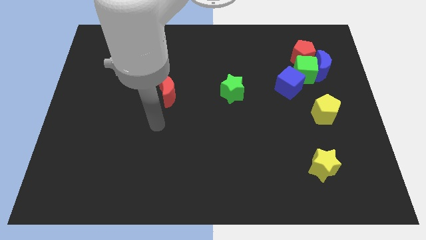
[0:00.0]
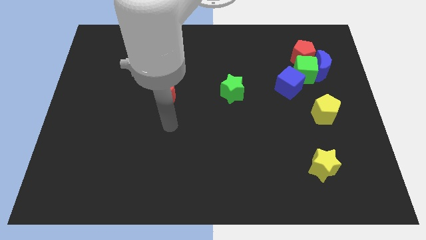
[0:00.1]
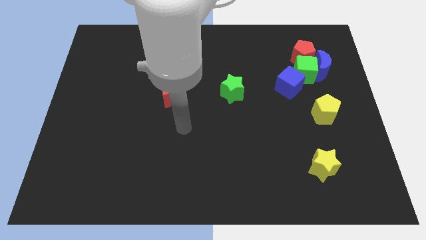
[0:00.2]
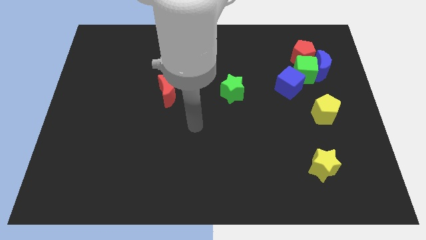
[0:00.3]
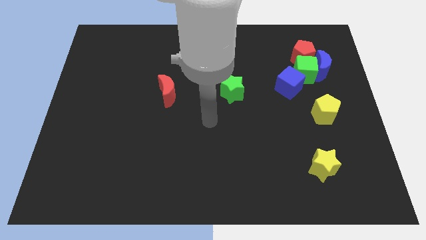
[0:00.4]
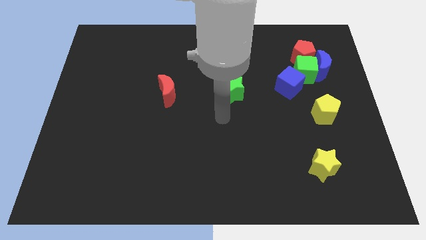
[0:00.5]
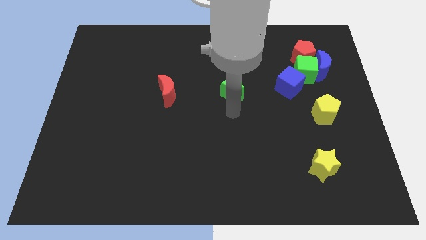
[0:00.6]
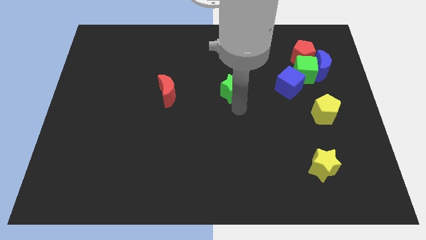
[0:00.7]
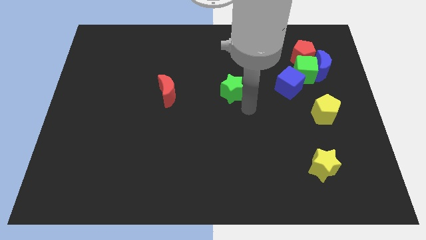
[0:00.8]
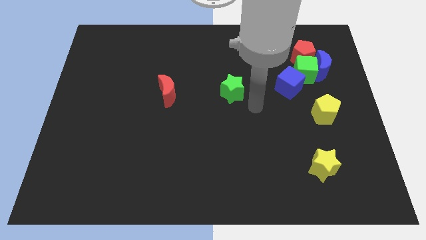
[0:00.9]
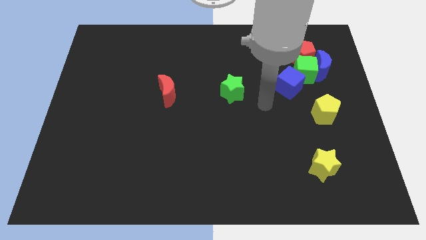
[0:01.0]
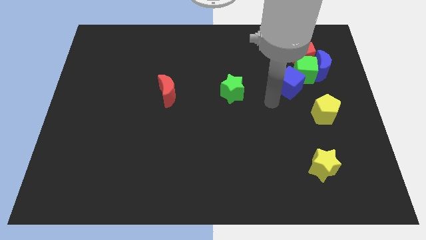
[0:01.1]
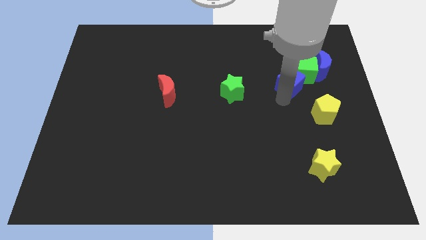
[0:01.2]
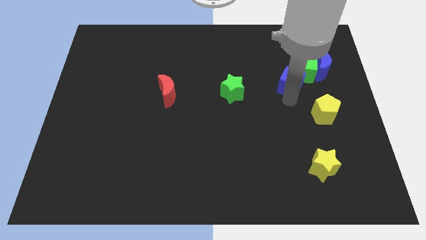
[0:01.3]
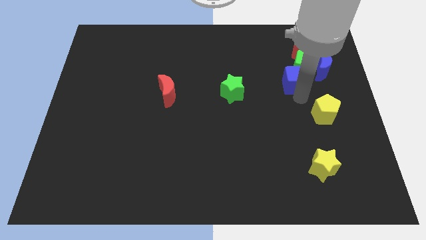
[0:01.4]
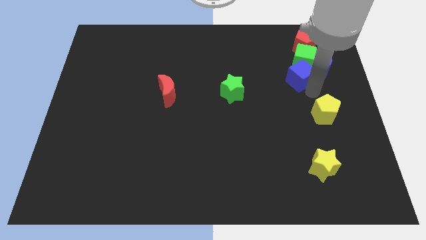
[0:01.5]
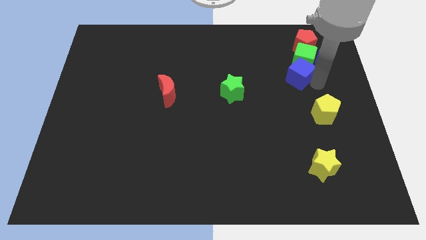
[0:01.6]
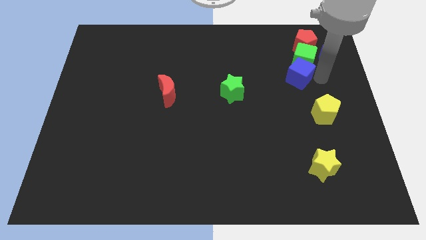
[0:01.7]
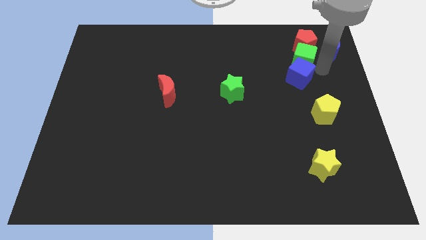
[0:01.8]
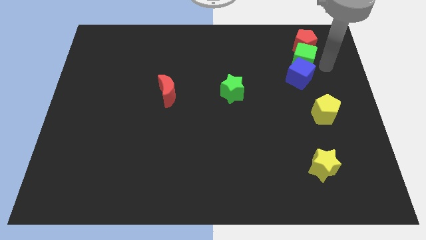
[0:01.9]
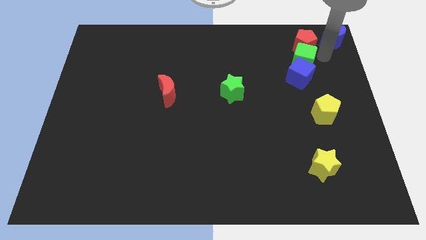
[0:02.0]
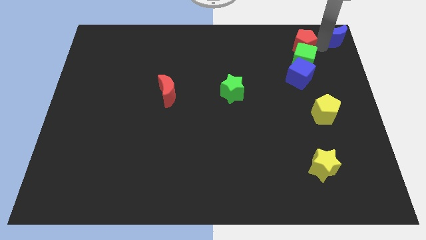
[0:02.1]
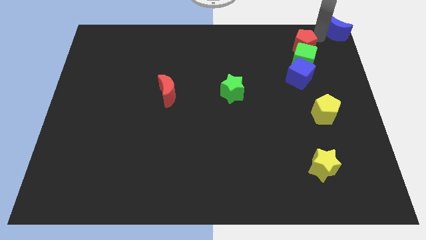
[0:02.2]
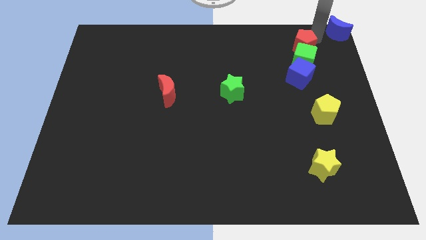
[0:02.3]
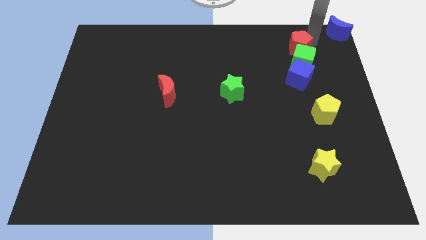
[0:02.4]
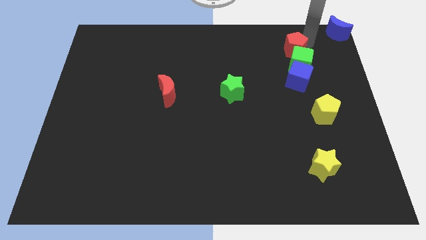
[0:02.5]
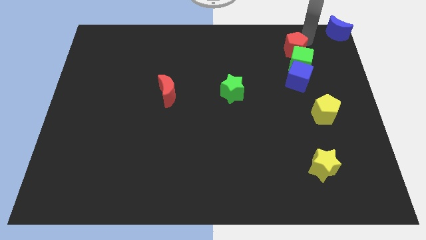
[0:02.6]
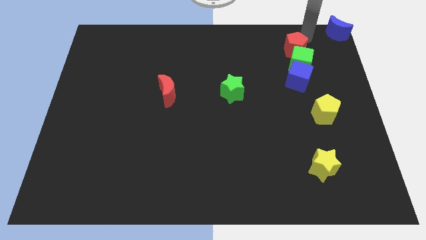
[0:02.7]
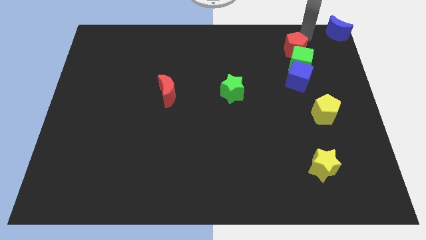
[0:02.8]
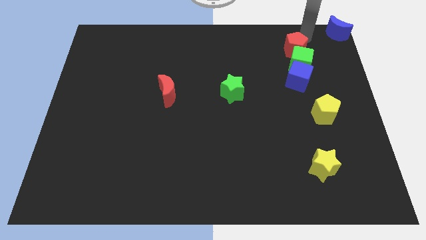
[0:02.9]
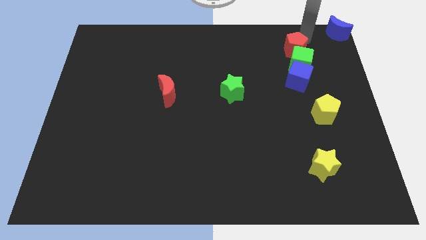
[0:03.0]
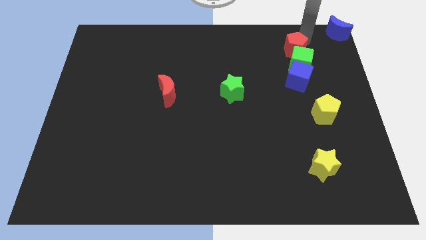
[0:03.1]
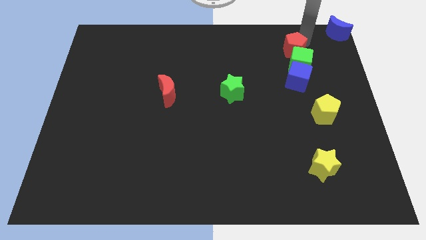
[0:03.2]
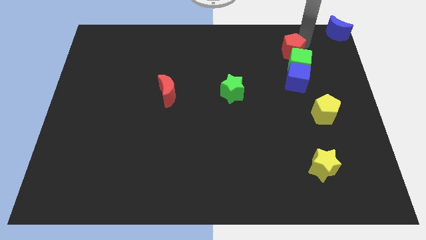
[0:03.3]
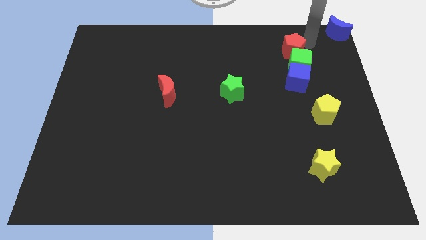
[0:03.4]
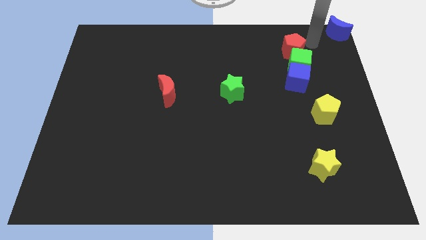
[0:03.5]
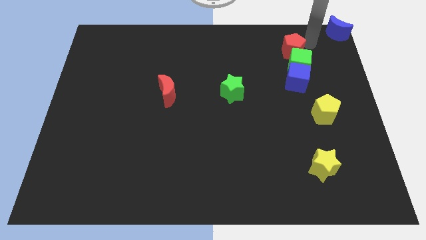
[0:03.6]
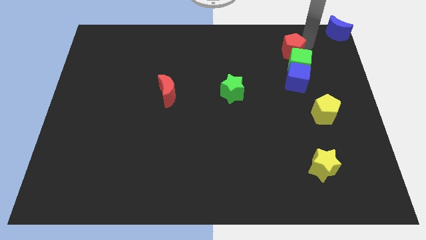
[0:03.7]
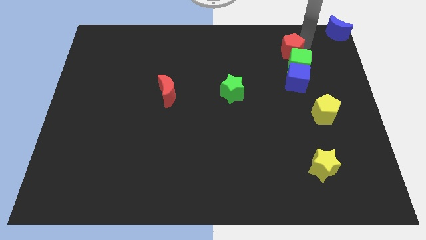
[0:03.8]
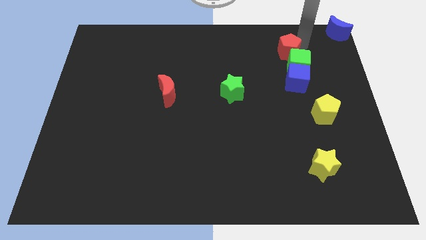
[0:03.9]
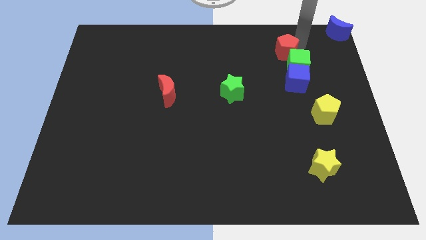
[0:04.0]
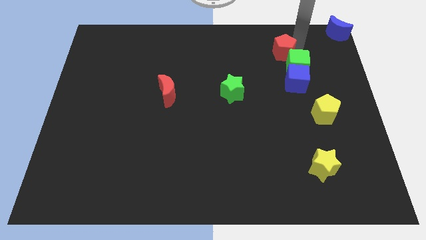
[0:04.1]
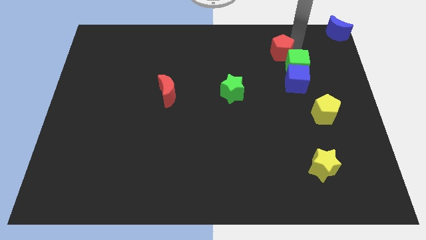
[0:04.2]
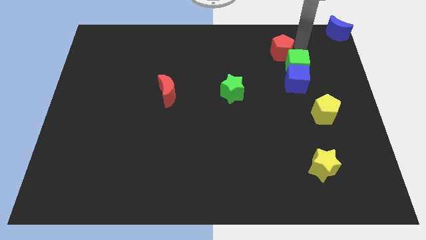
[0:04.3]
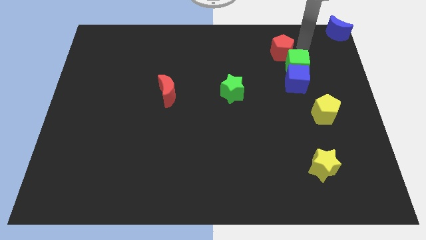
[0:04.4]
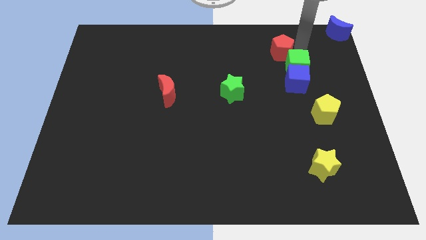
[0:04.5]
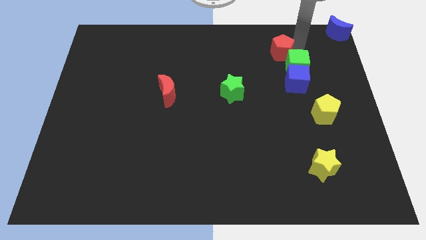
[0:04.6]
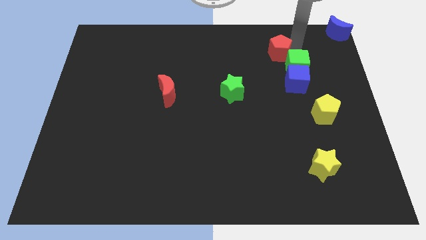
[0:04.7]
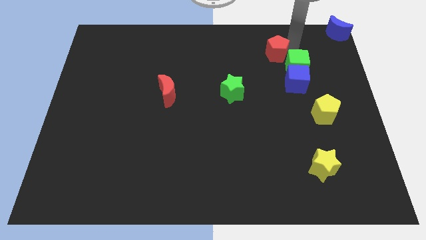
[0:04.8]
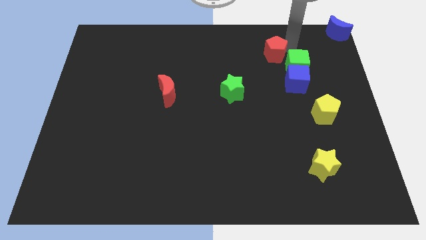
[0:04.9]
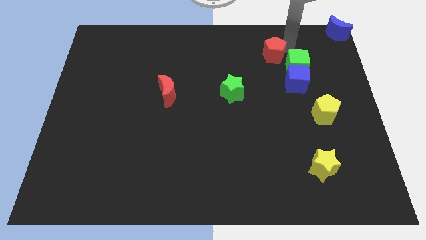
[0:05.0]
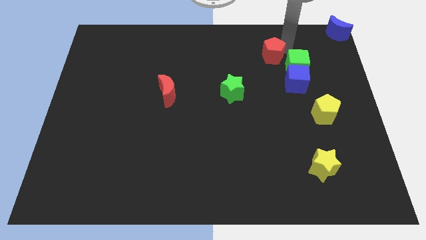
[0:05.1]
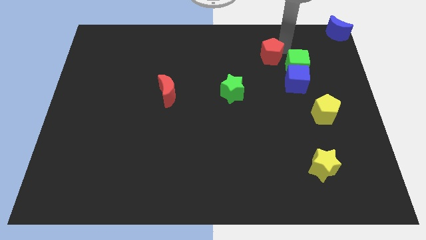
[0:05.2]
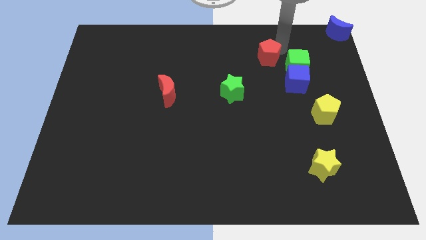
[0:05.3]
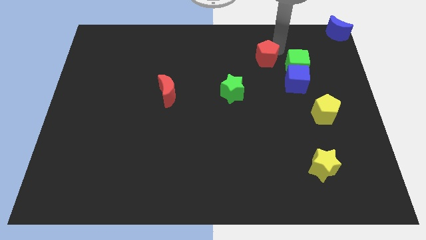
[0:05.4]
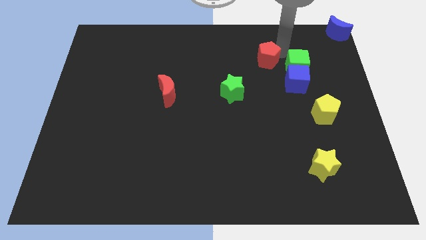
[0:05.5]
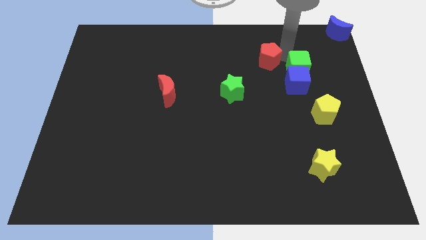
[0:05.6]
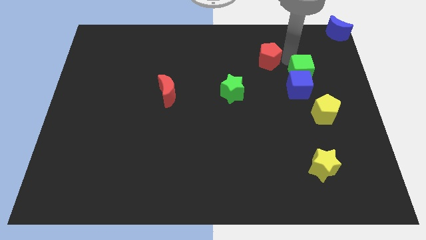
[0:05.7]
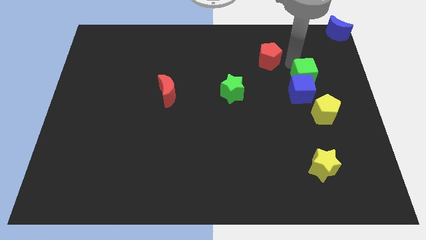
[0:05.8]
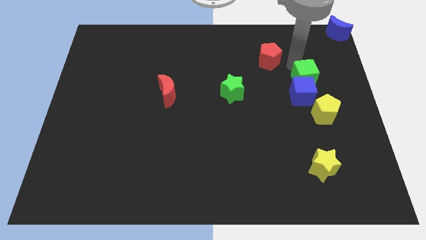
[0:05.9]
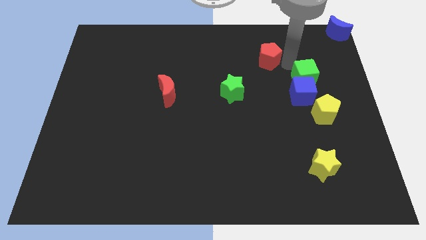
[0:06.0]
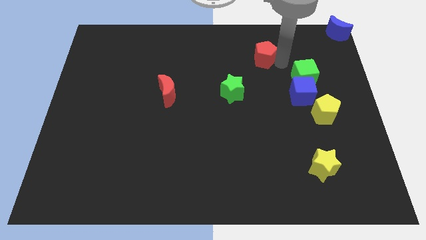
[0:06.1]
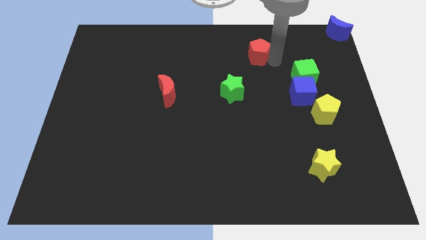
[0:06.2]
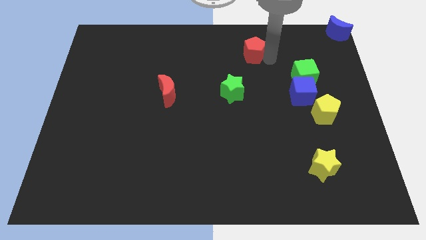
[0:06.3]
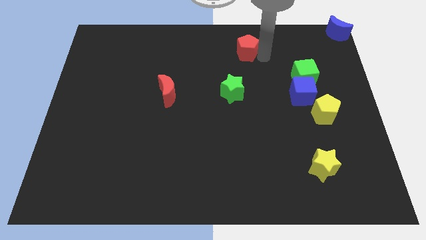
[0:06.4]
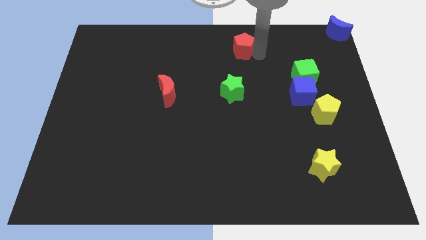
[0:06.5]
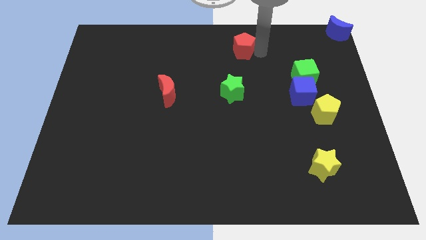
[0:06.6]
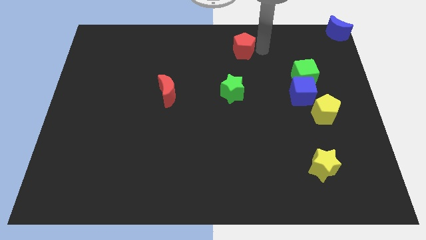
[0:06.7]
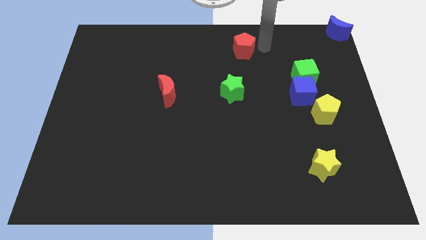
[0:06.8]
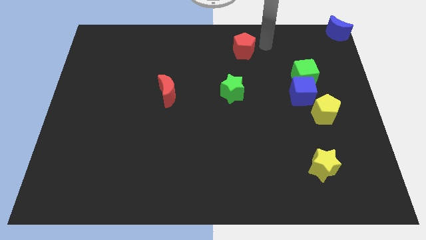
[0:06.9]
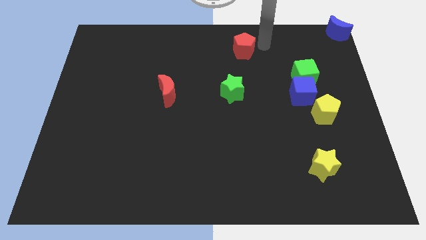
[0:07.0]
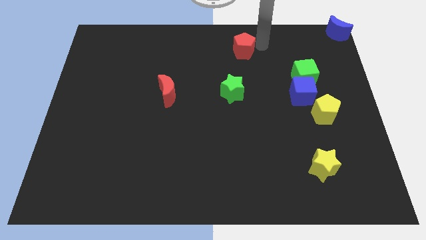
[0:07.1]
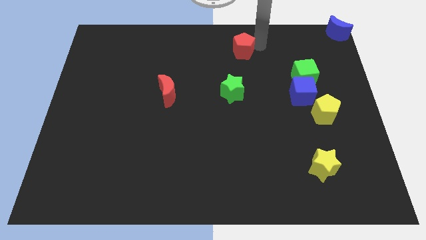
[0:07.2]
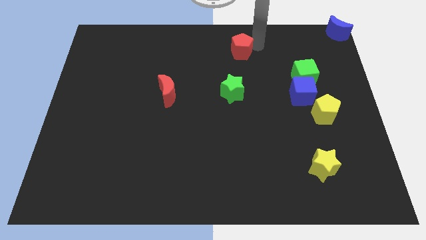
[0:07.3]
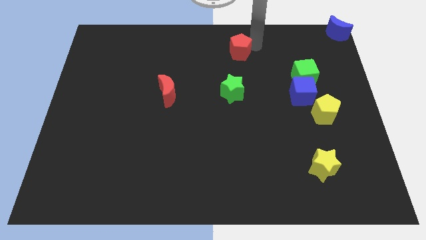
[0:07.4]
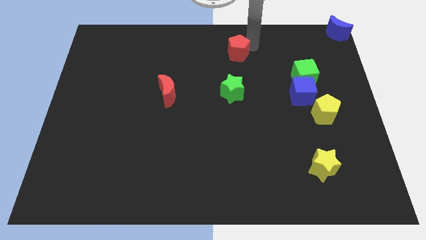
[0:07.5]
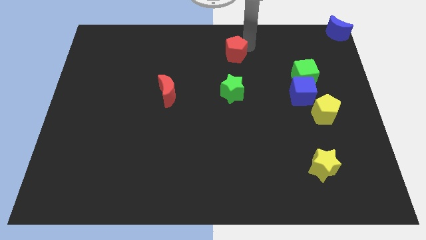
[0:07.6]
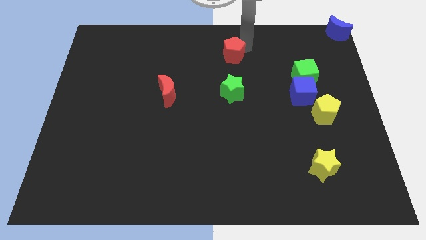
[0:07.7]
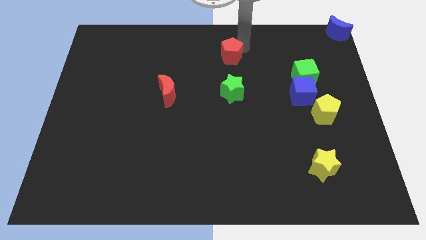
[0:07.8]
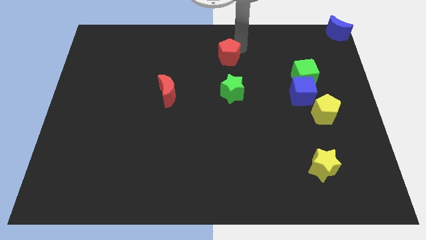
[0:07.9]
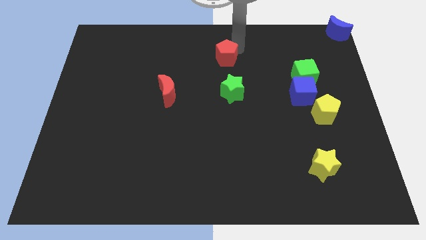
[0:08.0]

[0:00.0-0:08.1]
slide the red pentagon to the left

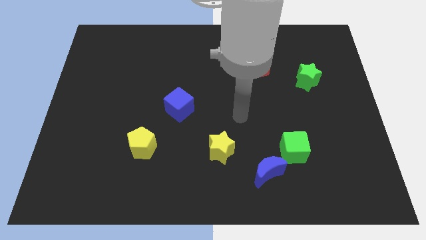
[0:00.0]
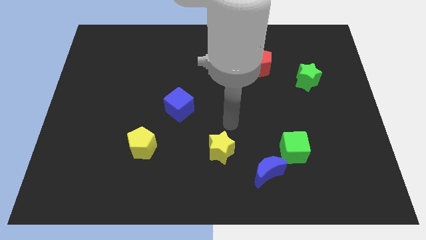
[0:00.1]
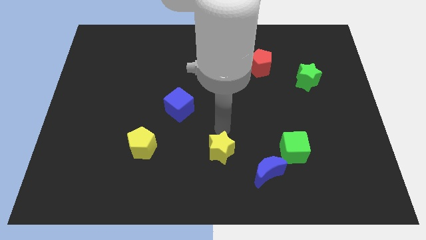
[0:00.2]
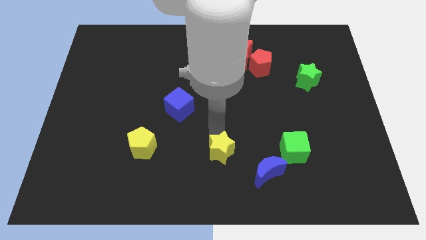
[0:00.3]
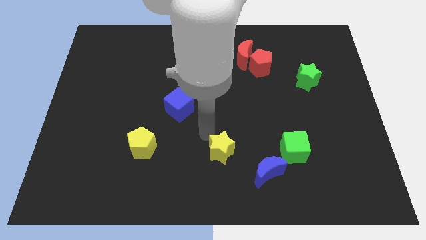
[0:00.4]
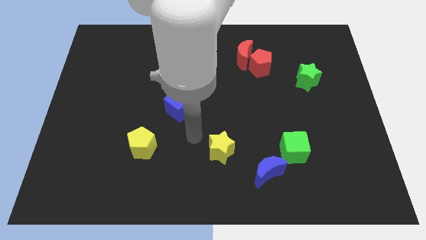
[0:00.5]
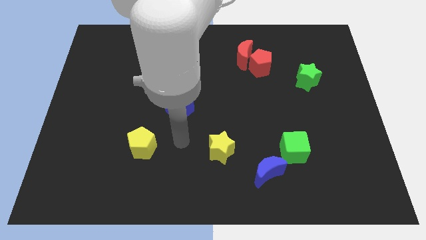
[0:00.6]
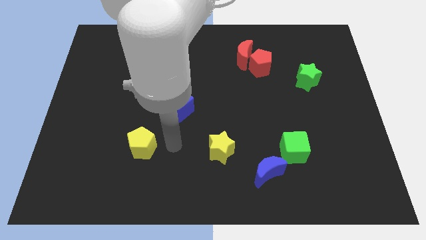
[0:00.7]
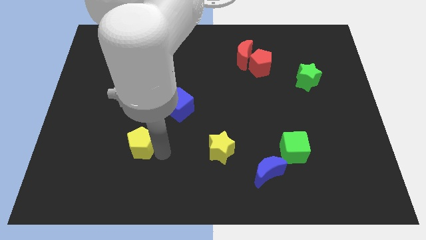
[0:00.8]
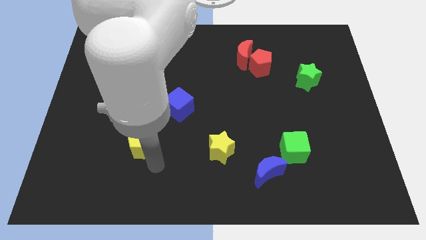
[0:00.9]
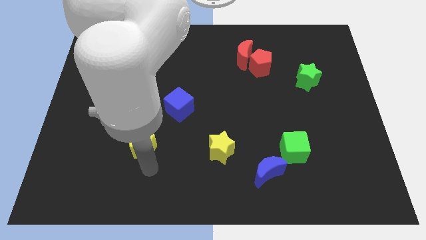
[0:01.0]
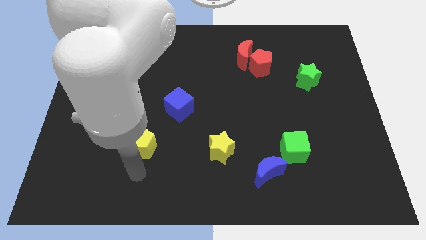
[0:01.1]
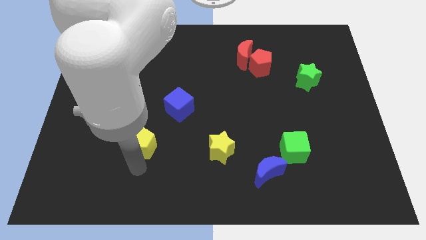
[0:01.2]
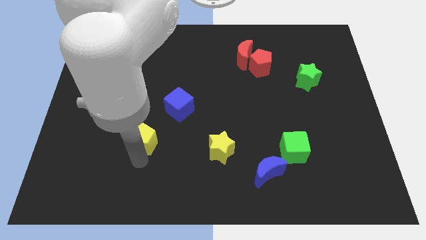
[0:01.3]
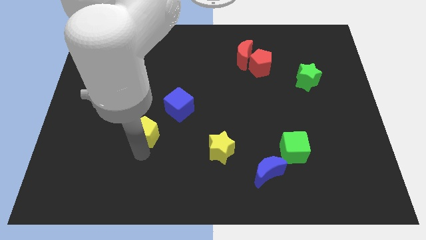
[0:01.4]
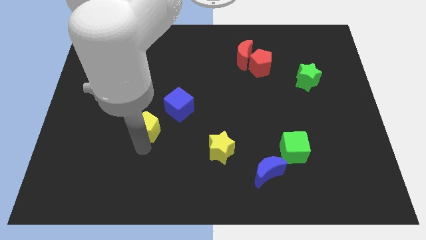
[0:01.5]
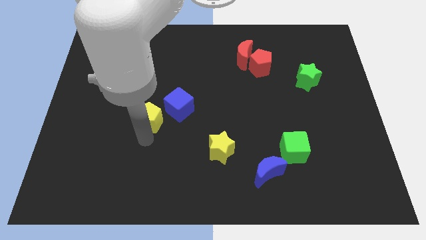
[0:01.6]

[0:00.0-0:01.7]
move the yellow pentagon a little bit up
